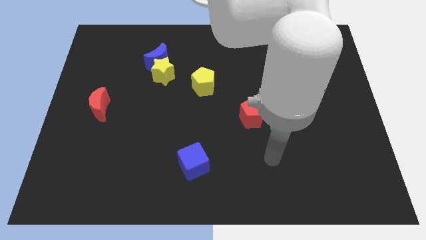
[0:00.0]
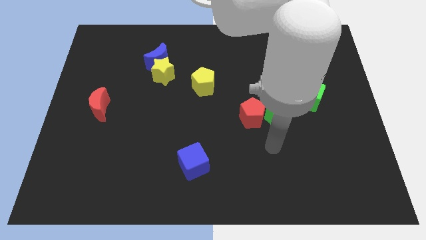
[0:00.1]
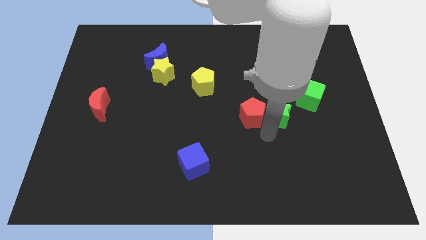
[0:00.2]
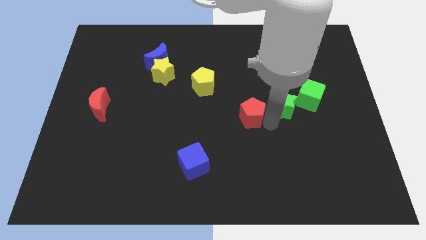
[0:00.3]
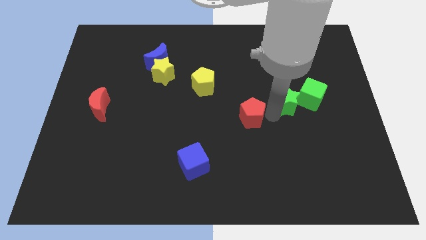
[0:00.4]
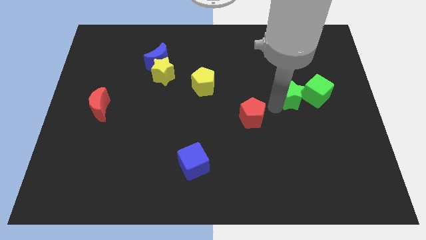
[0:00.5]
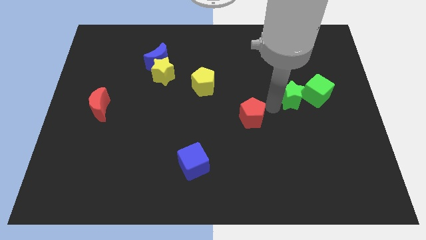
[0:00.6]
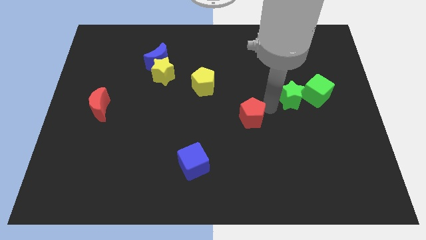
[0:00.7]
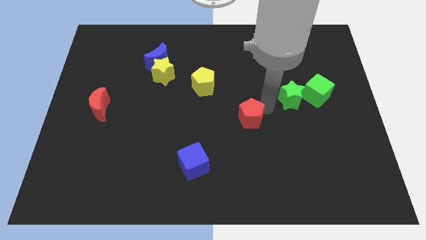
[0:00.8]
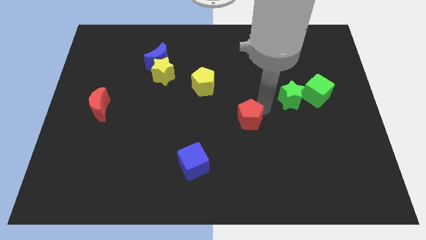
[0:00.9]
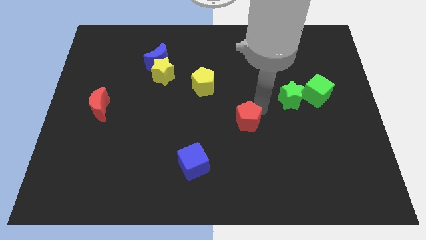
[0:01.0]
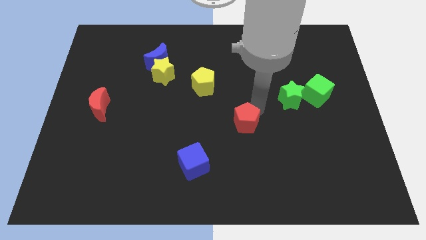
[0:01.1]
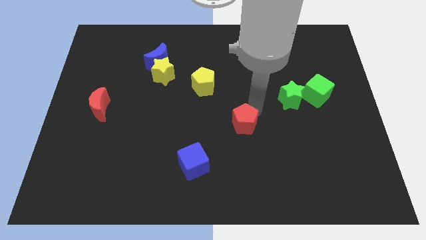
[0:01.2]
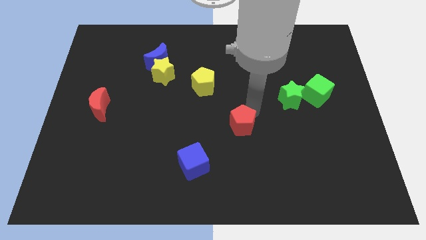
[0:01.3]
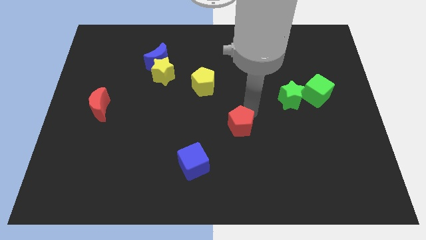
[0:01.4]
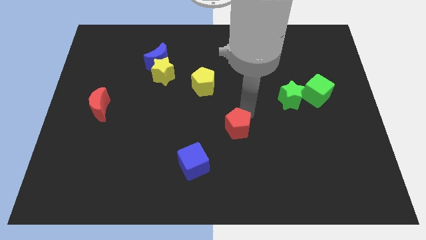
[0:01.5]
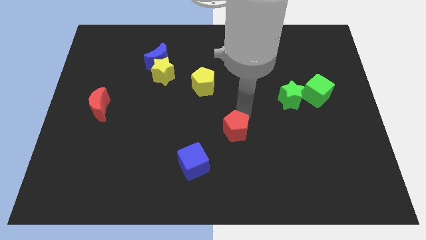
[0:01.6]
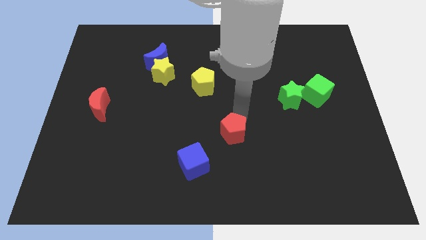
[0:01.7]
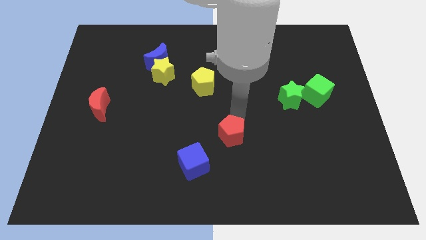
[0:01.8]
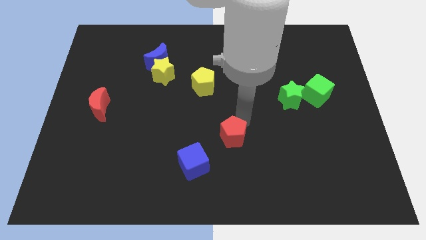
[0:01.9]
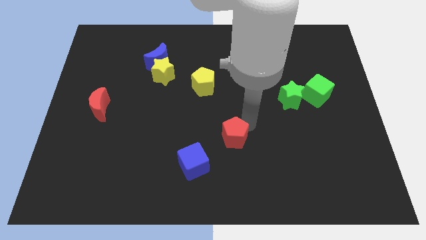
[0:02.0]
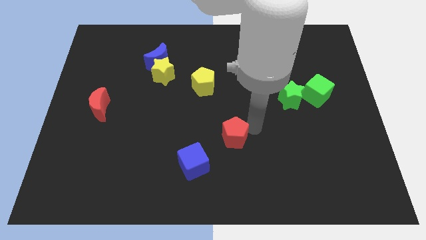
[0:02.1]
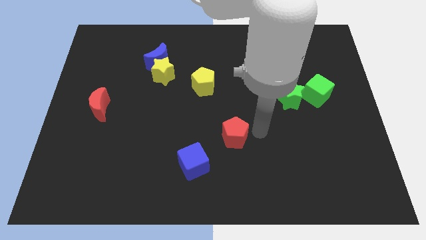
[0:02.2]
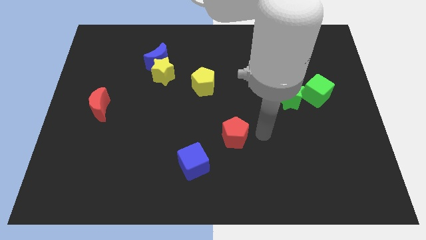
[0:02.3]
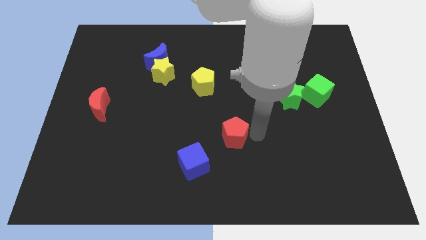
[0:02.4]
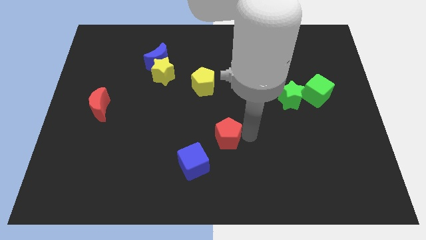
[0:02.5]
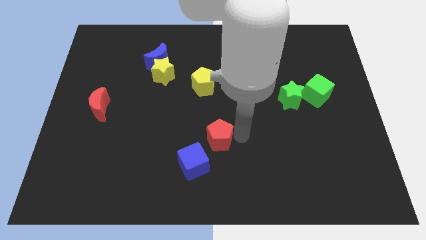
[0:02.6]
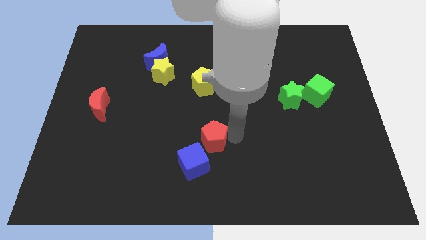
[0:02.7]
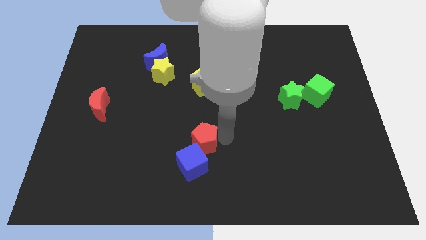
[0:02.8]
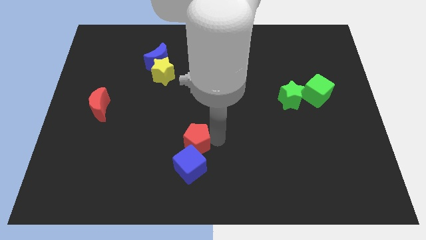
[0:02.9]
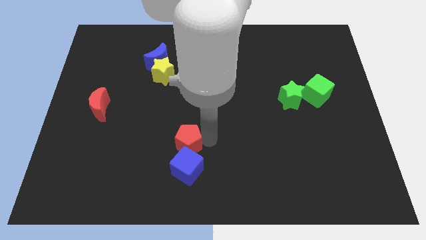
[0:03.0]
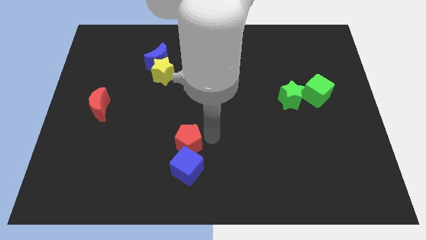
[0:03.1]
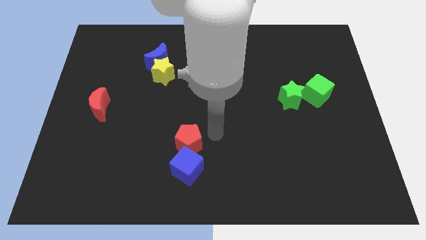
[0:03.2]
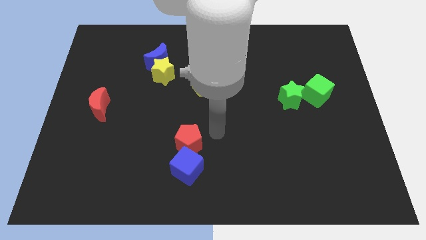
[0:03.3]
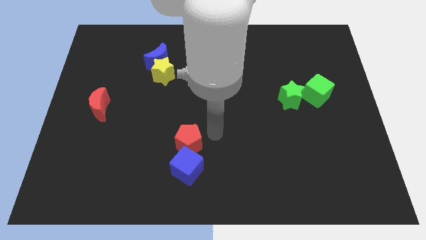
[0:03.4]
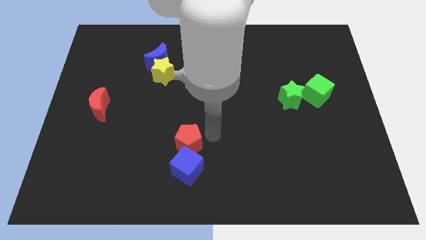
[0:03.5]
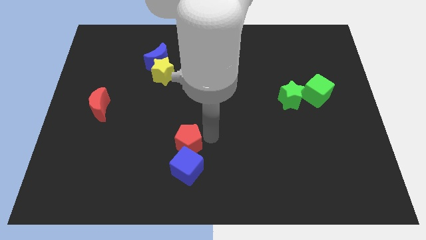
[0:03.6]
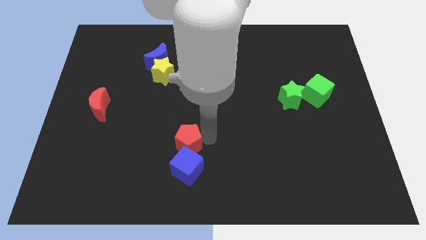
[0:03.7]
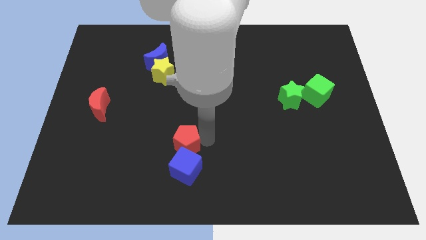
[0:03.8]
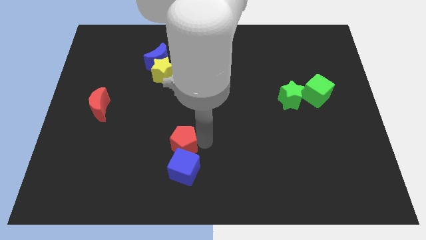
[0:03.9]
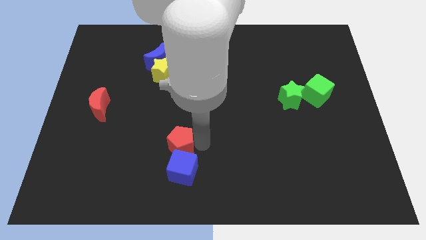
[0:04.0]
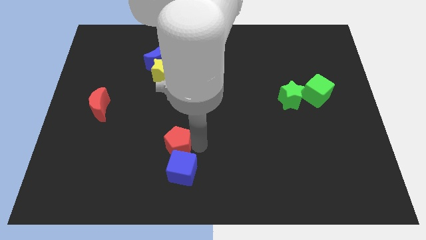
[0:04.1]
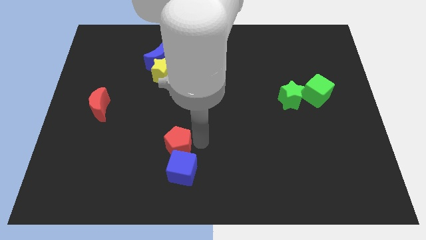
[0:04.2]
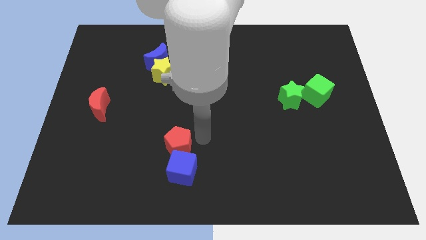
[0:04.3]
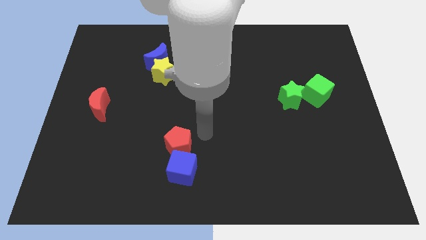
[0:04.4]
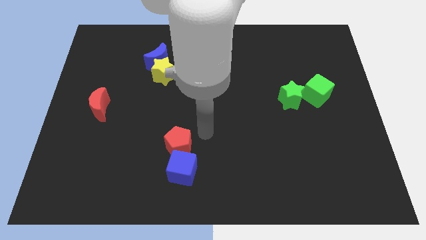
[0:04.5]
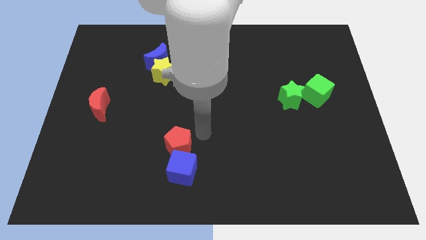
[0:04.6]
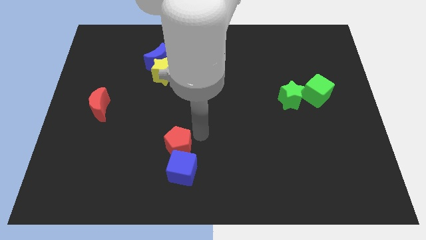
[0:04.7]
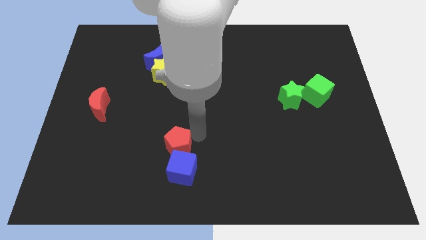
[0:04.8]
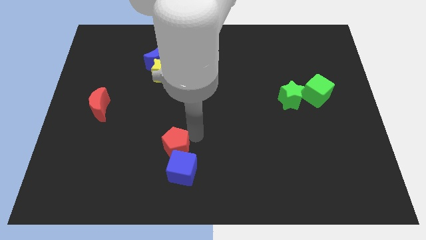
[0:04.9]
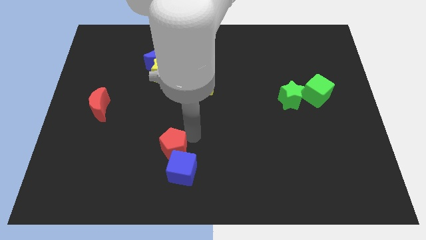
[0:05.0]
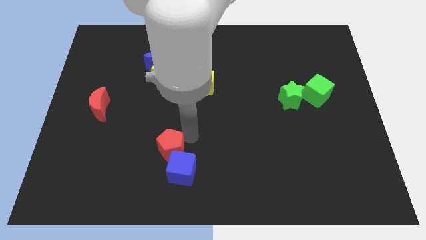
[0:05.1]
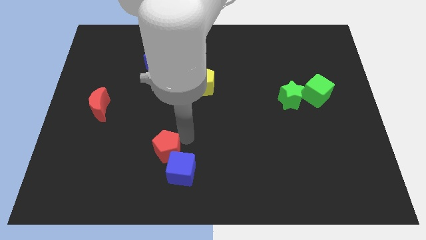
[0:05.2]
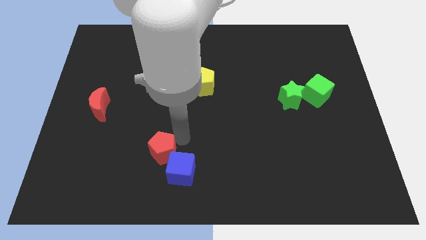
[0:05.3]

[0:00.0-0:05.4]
put the red pentagon left of the blue cube
